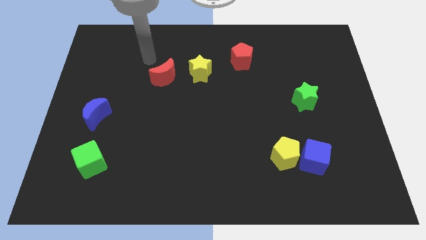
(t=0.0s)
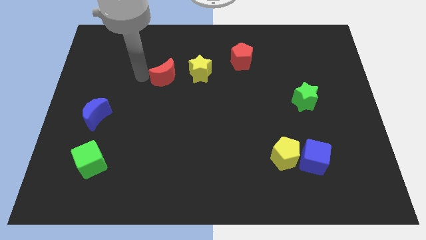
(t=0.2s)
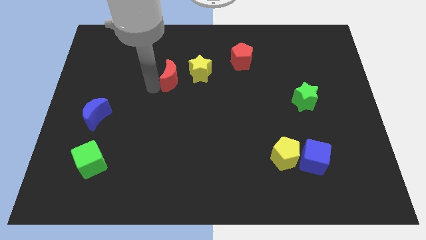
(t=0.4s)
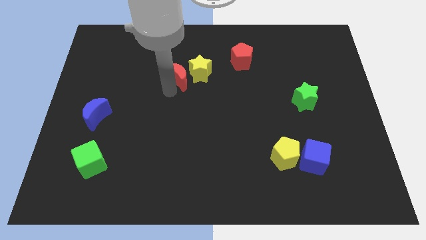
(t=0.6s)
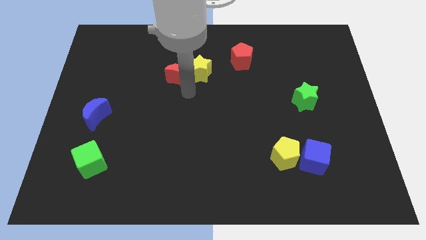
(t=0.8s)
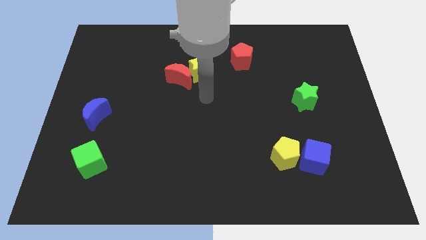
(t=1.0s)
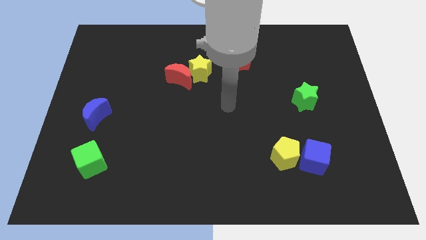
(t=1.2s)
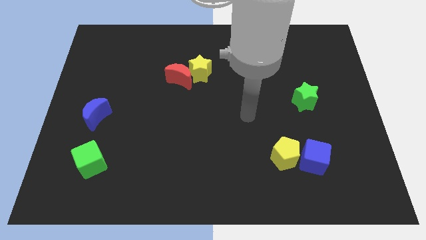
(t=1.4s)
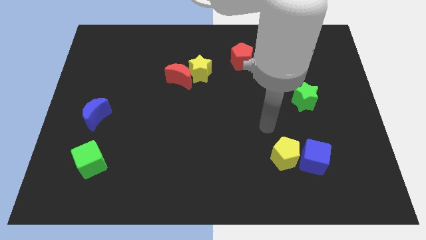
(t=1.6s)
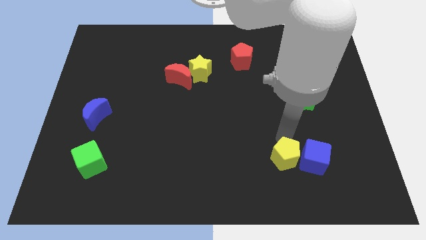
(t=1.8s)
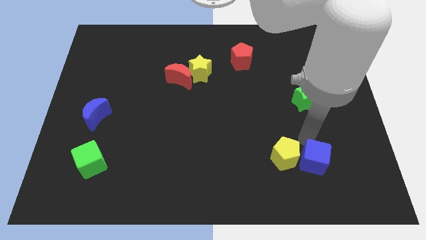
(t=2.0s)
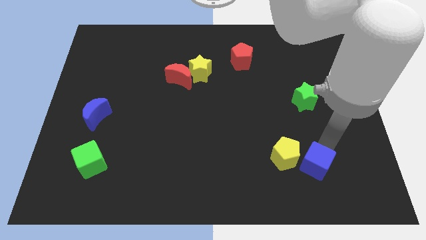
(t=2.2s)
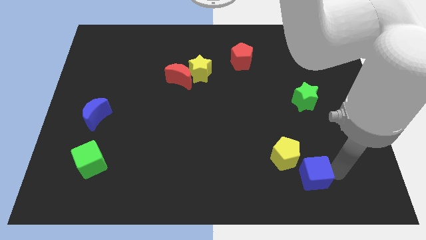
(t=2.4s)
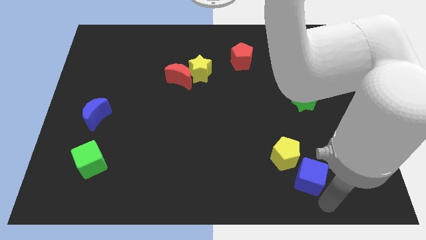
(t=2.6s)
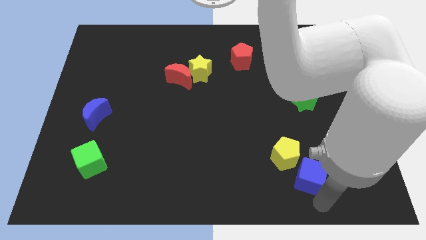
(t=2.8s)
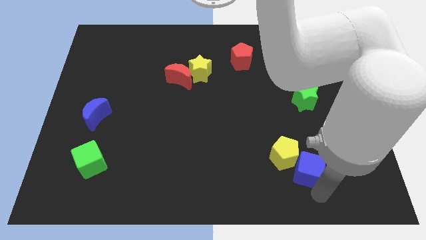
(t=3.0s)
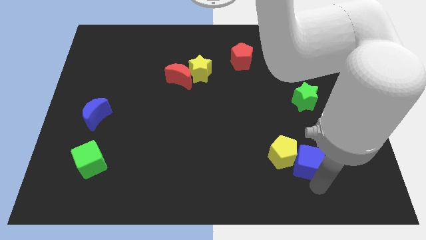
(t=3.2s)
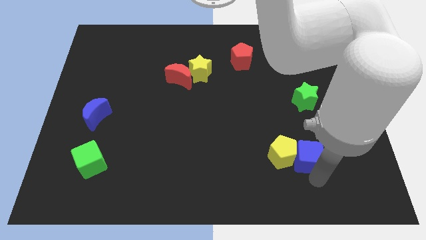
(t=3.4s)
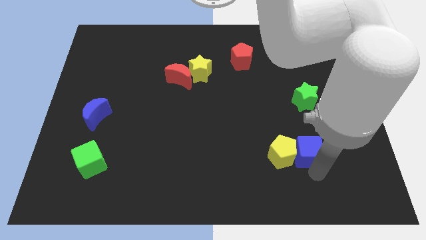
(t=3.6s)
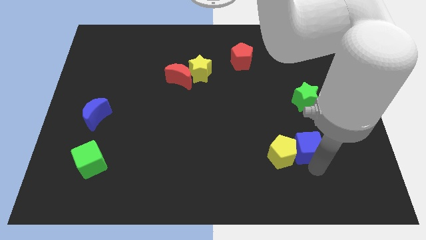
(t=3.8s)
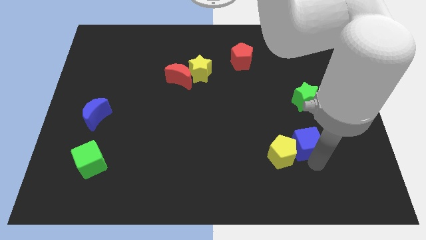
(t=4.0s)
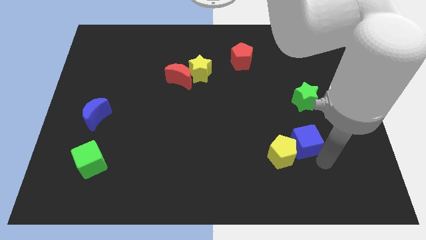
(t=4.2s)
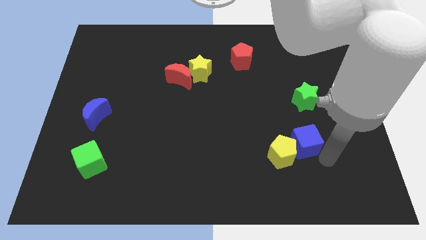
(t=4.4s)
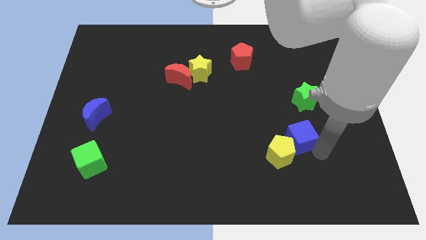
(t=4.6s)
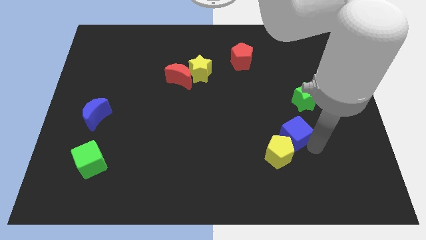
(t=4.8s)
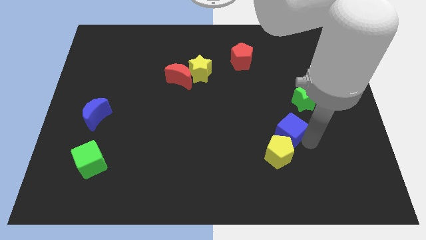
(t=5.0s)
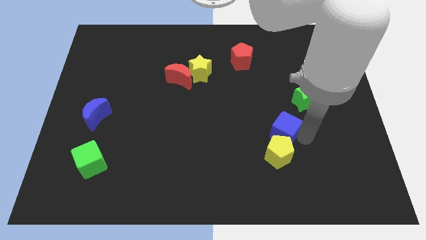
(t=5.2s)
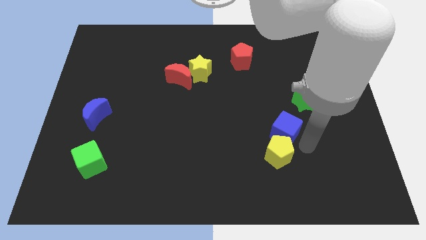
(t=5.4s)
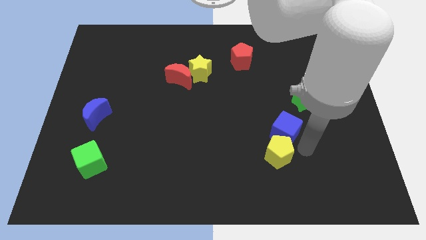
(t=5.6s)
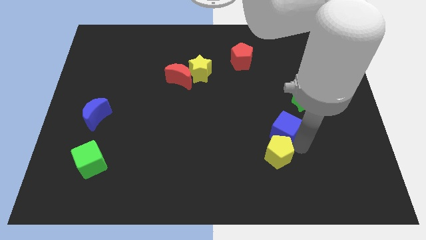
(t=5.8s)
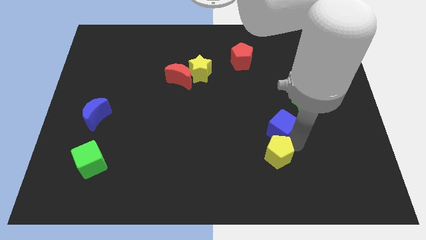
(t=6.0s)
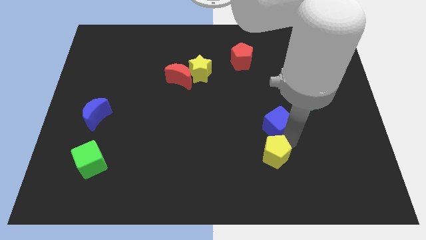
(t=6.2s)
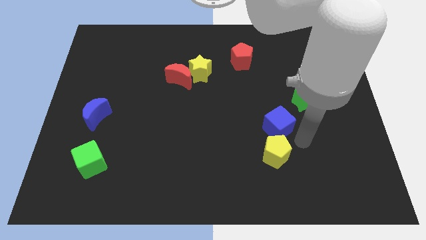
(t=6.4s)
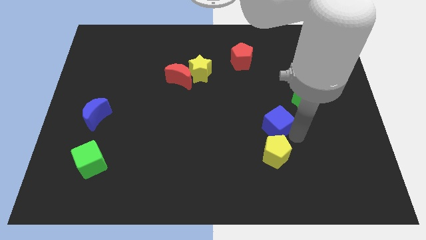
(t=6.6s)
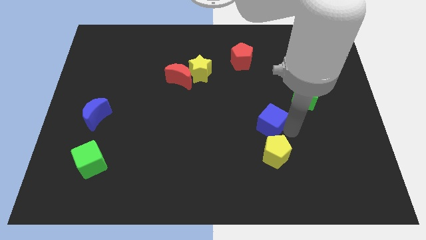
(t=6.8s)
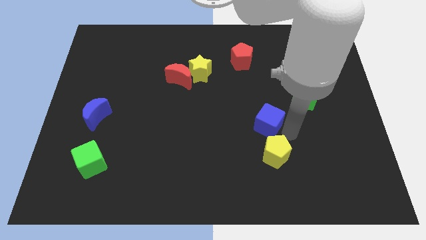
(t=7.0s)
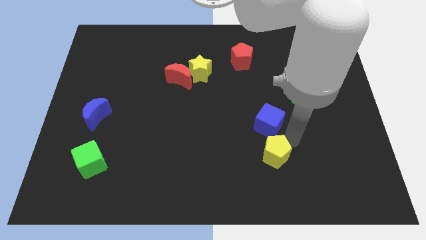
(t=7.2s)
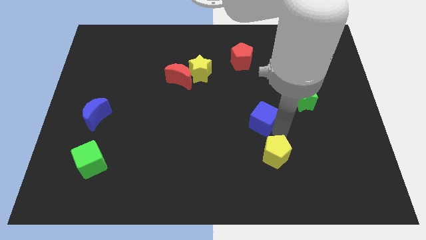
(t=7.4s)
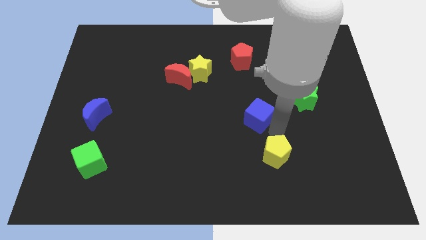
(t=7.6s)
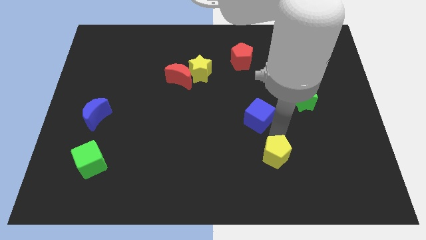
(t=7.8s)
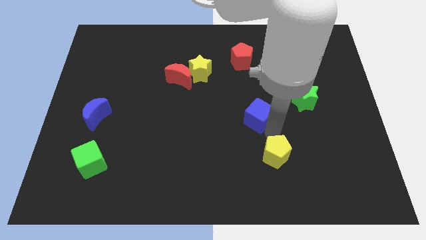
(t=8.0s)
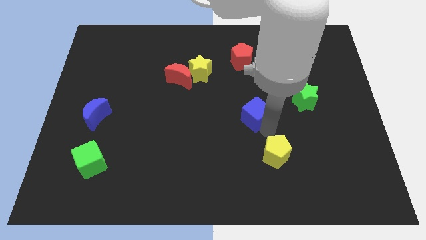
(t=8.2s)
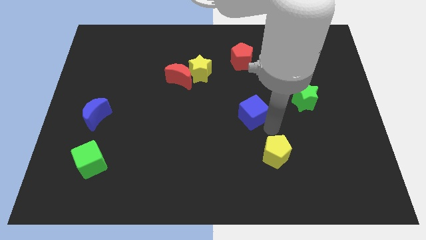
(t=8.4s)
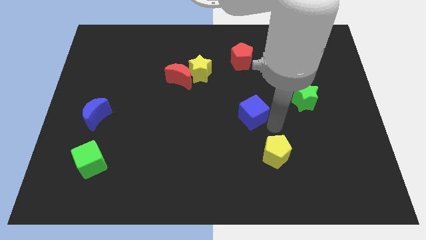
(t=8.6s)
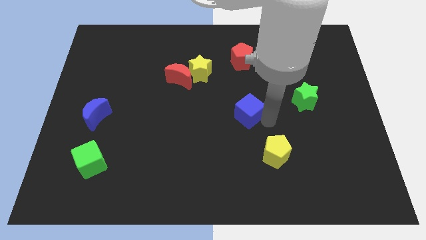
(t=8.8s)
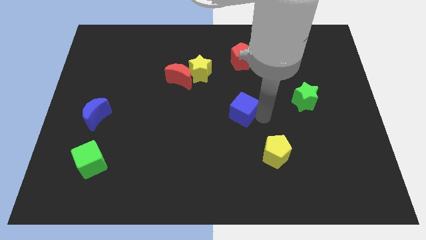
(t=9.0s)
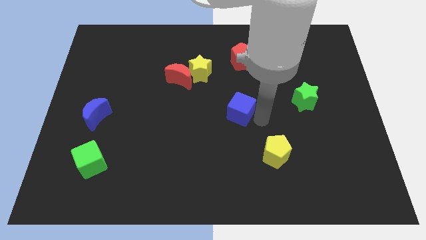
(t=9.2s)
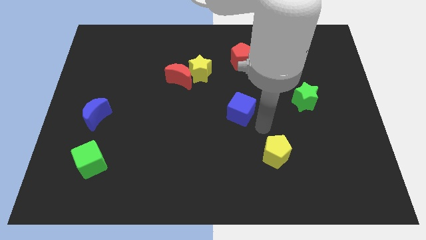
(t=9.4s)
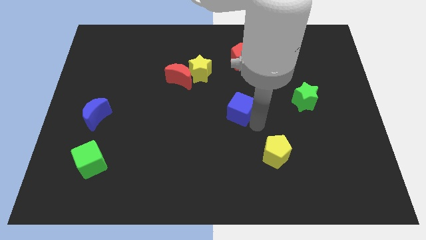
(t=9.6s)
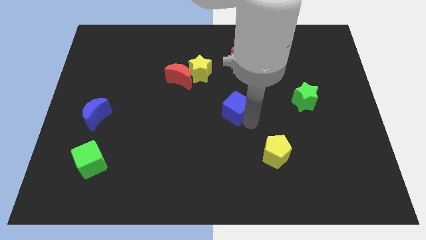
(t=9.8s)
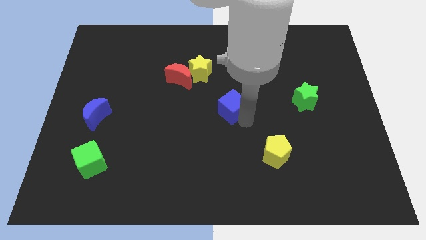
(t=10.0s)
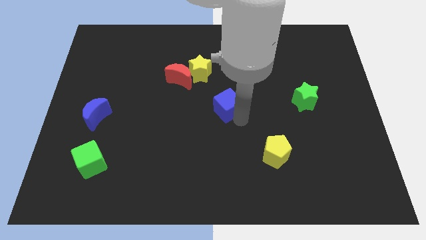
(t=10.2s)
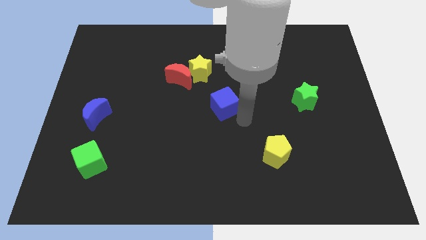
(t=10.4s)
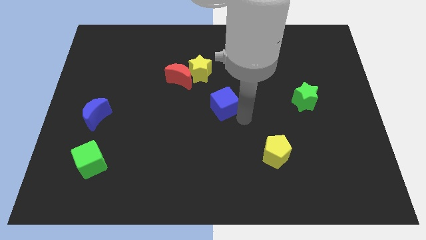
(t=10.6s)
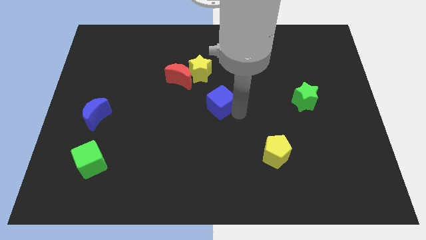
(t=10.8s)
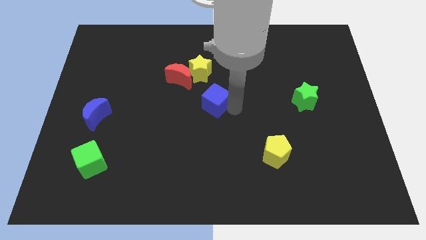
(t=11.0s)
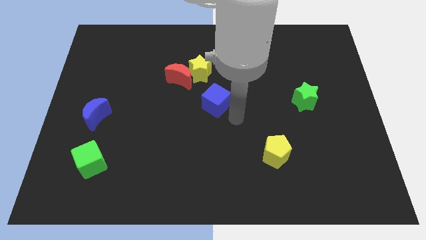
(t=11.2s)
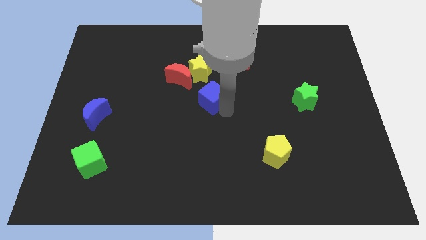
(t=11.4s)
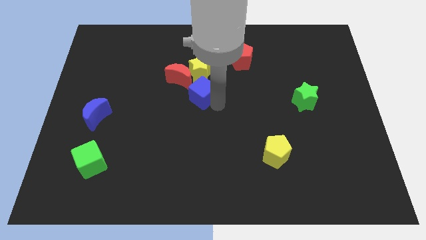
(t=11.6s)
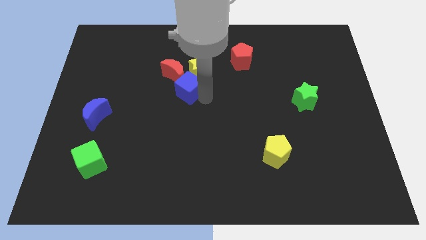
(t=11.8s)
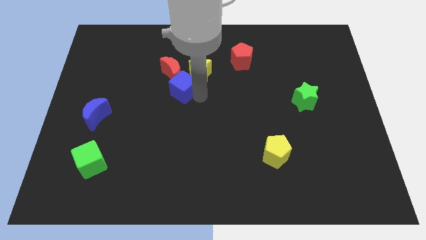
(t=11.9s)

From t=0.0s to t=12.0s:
put the blue cube close to the red moon

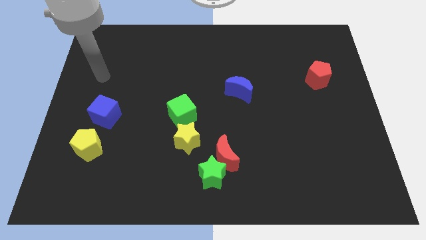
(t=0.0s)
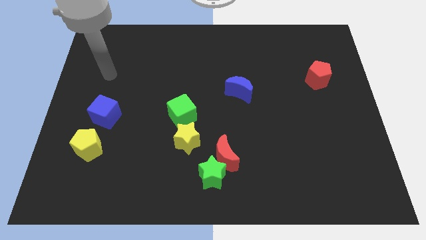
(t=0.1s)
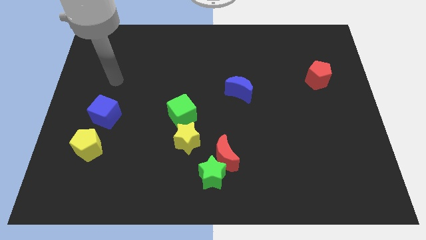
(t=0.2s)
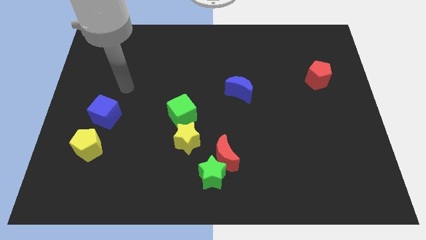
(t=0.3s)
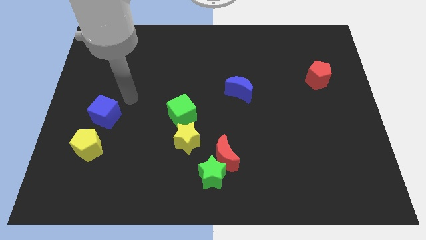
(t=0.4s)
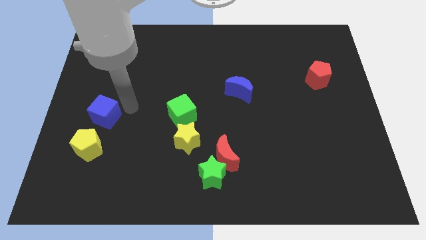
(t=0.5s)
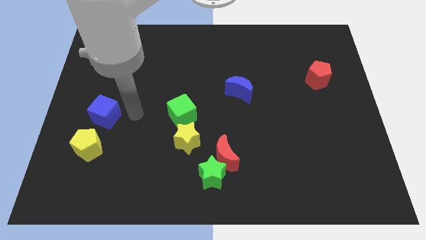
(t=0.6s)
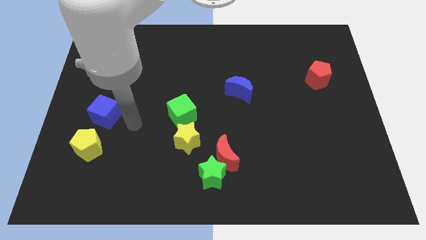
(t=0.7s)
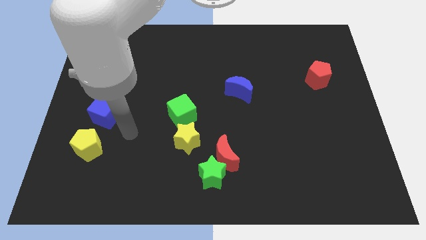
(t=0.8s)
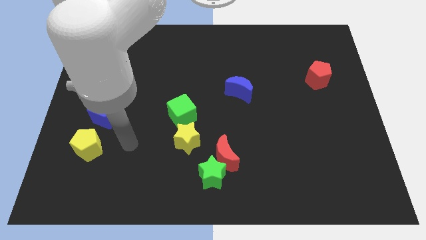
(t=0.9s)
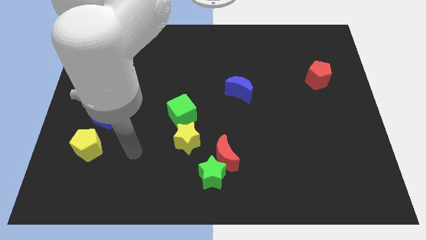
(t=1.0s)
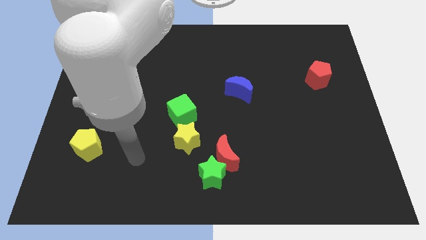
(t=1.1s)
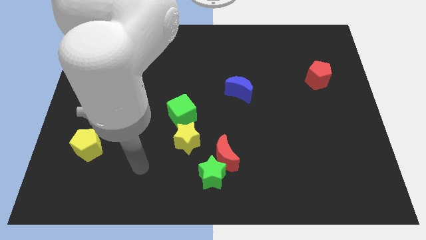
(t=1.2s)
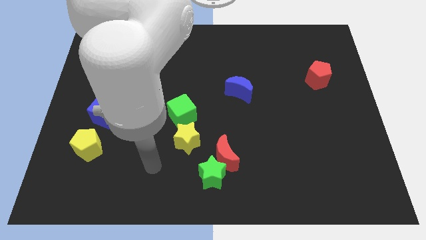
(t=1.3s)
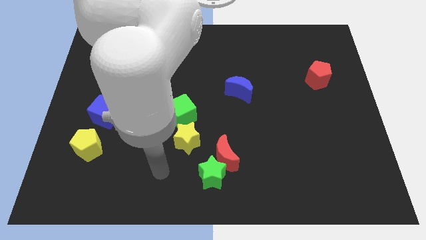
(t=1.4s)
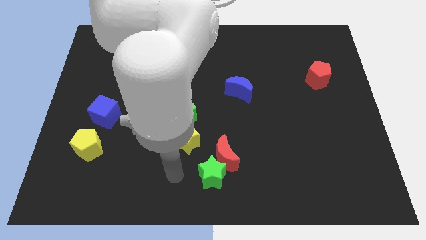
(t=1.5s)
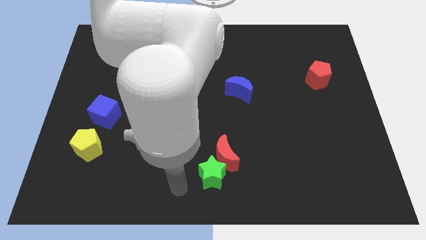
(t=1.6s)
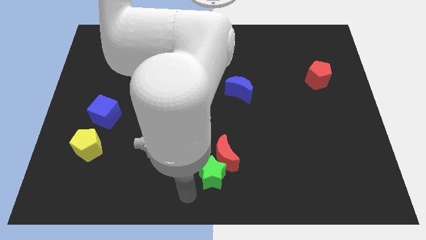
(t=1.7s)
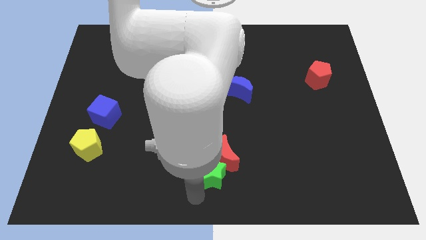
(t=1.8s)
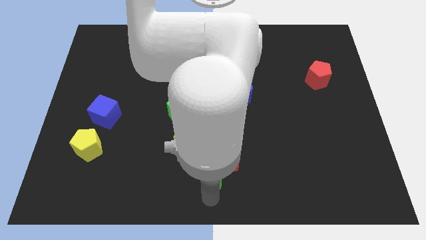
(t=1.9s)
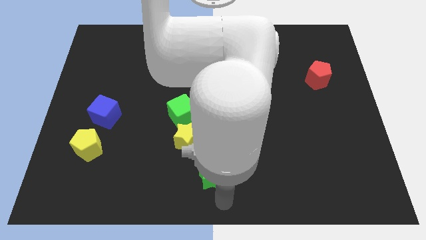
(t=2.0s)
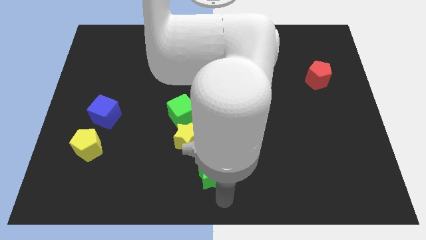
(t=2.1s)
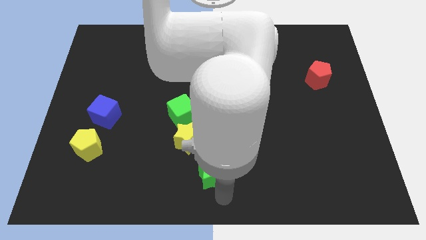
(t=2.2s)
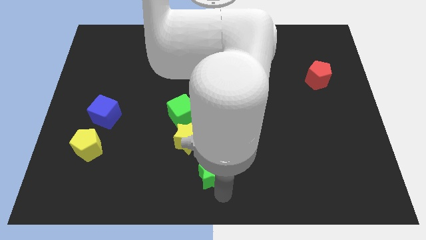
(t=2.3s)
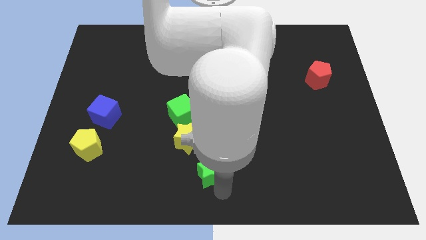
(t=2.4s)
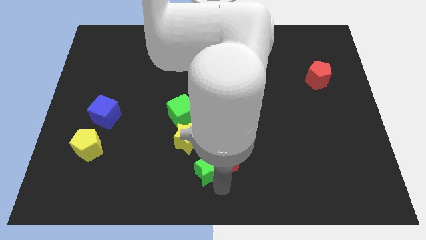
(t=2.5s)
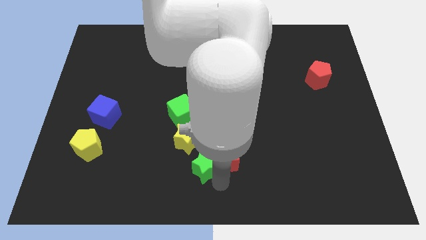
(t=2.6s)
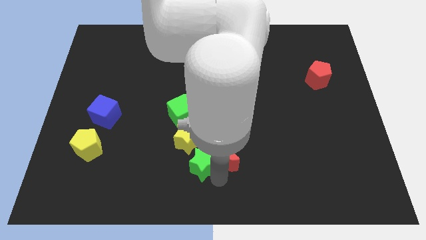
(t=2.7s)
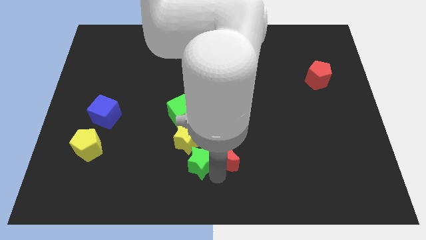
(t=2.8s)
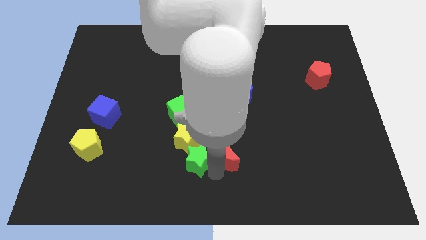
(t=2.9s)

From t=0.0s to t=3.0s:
slide the green star close to the yellow star
